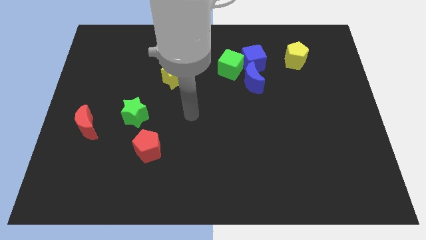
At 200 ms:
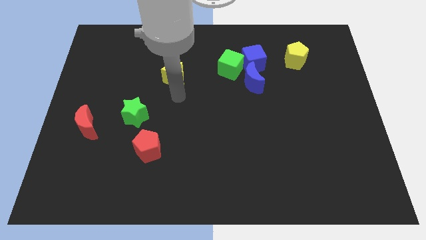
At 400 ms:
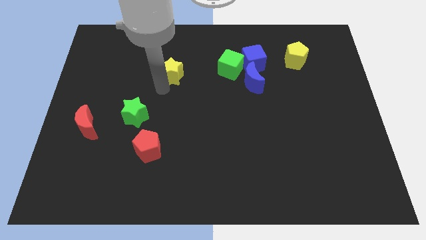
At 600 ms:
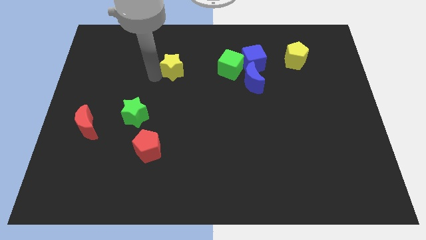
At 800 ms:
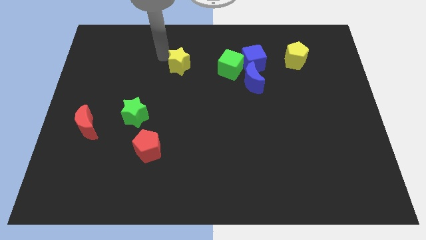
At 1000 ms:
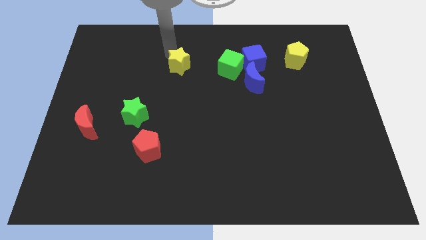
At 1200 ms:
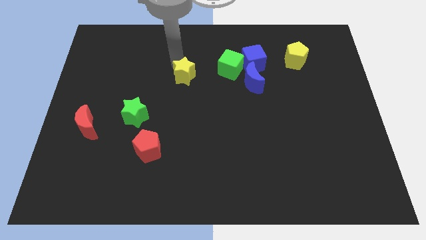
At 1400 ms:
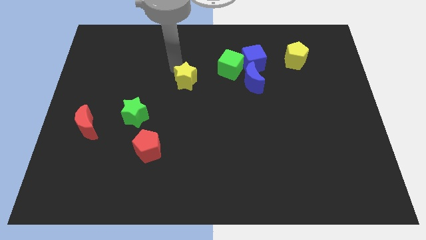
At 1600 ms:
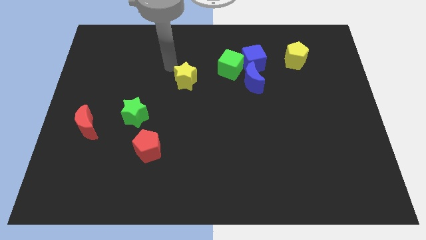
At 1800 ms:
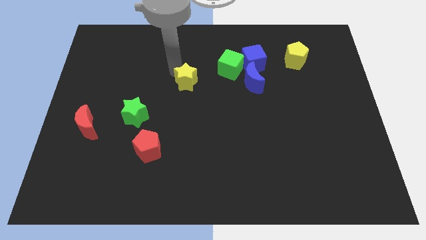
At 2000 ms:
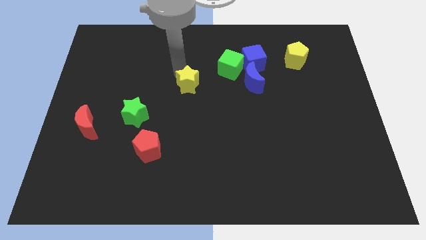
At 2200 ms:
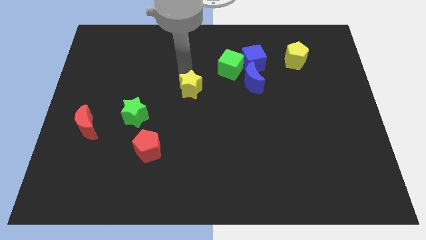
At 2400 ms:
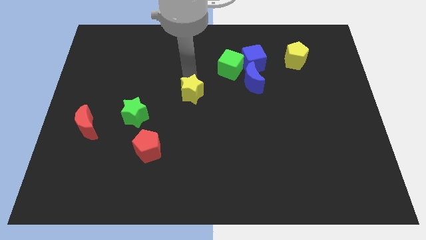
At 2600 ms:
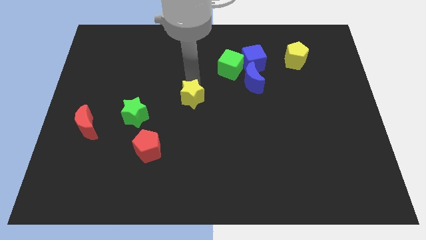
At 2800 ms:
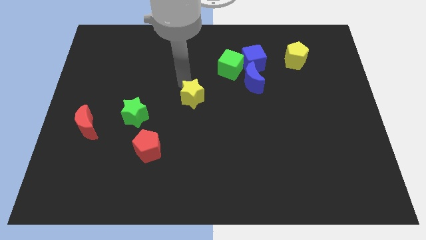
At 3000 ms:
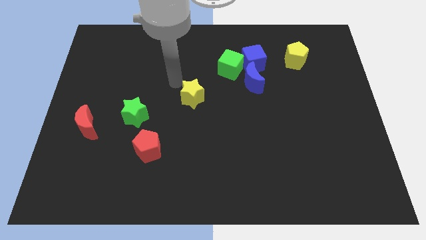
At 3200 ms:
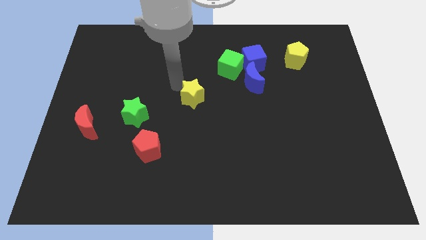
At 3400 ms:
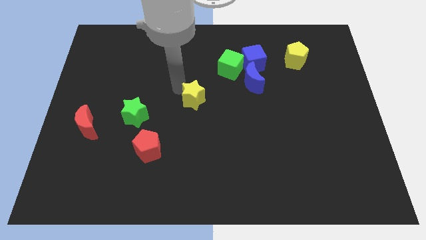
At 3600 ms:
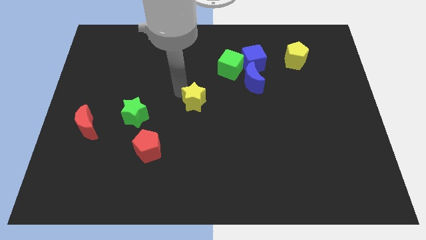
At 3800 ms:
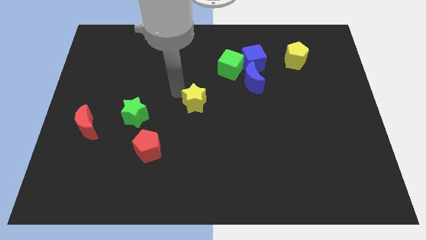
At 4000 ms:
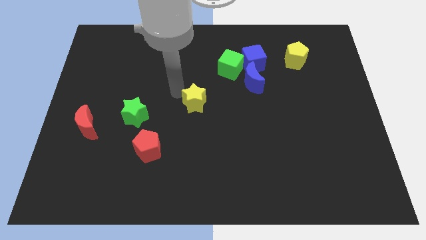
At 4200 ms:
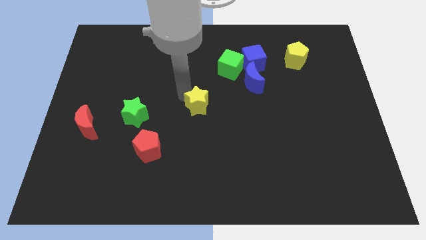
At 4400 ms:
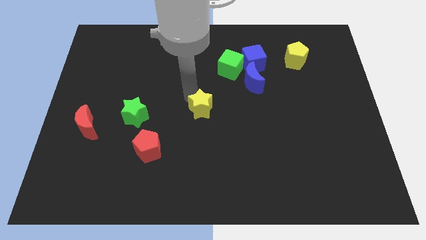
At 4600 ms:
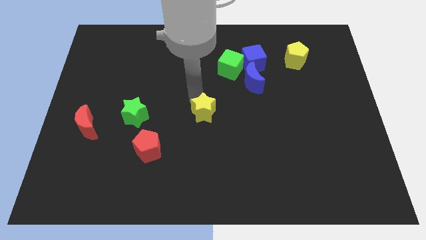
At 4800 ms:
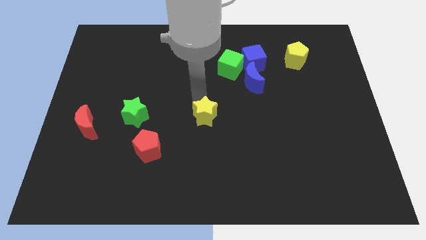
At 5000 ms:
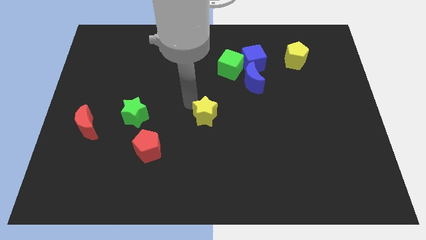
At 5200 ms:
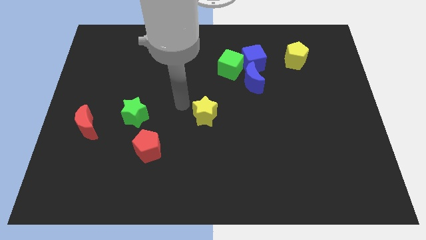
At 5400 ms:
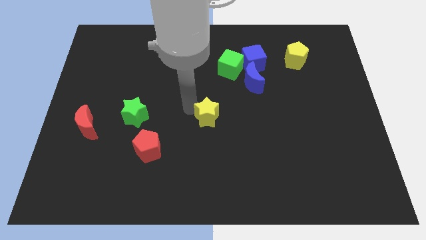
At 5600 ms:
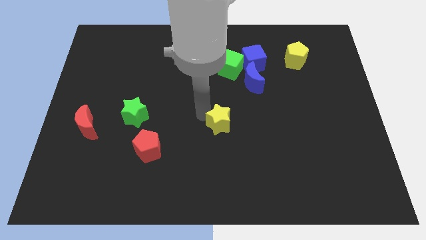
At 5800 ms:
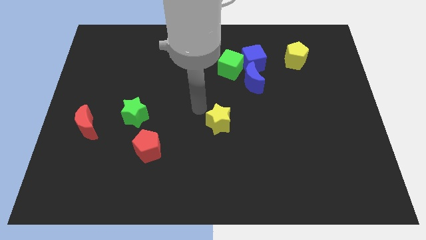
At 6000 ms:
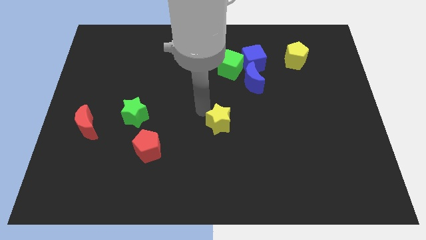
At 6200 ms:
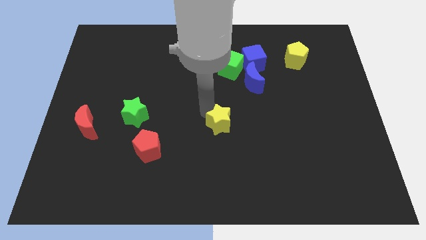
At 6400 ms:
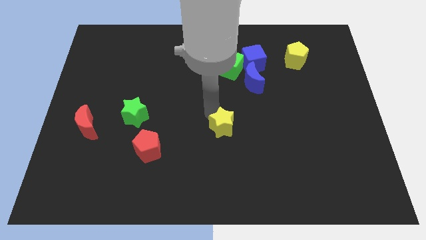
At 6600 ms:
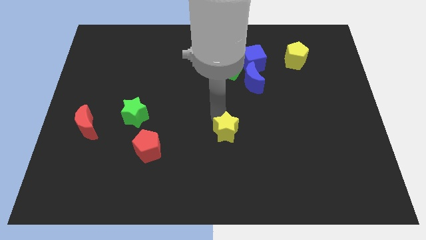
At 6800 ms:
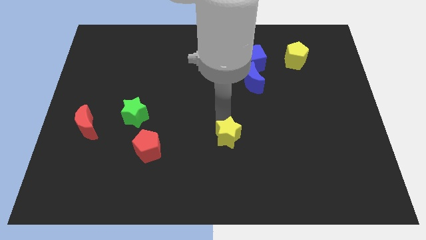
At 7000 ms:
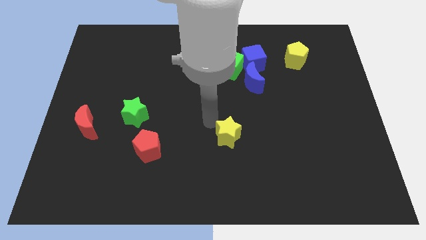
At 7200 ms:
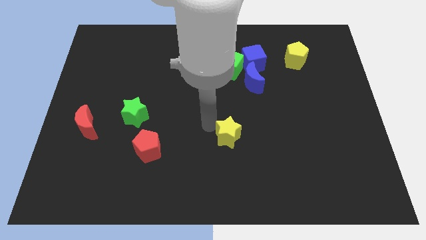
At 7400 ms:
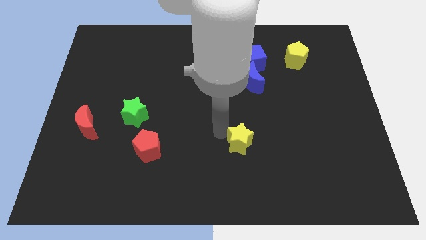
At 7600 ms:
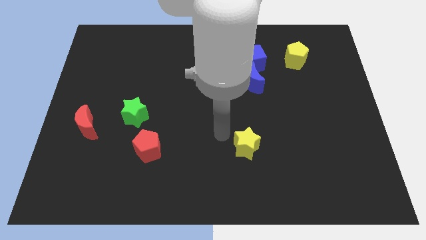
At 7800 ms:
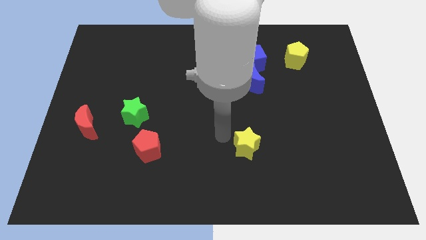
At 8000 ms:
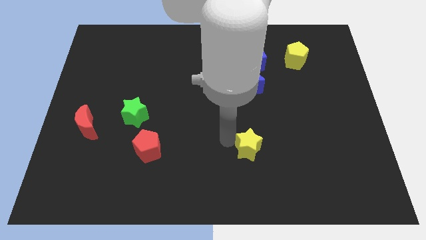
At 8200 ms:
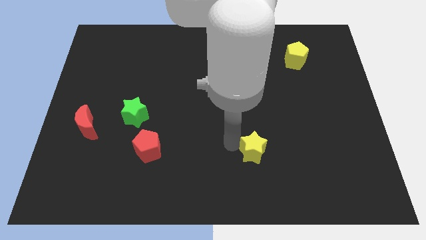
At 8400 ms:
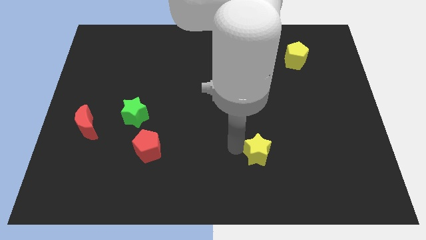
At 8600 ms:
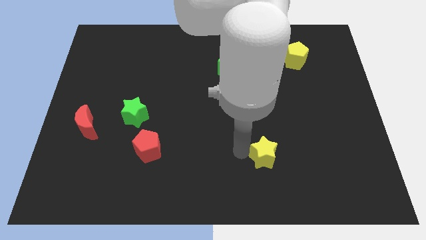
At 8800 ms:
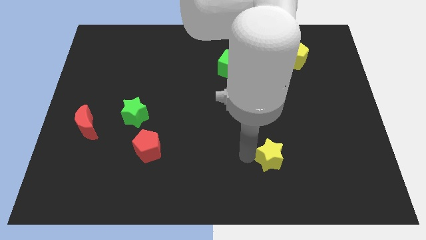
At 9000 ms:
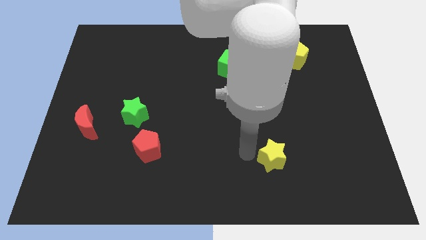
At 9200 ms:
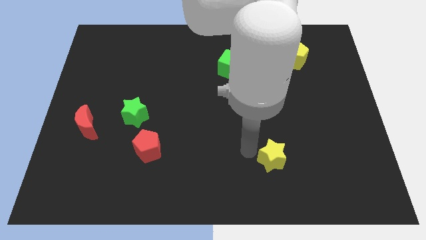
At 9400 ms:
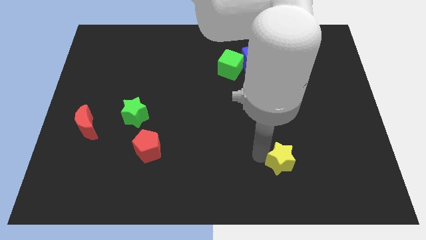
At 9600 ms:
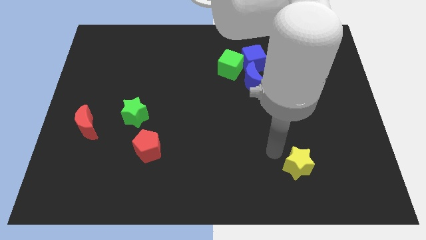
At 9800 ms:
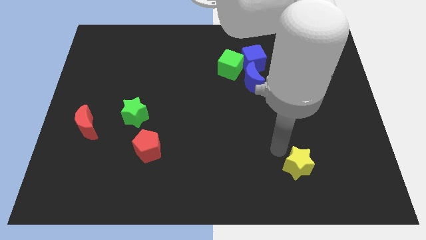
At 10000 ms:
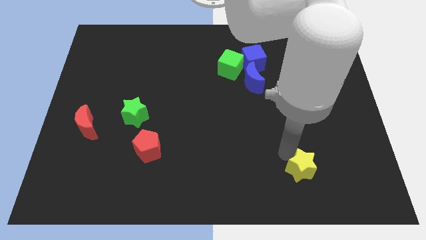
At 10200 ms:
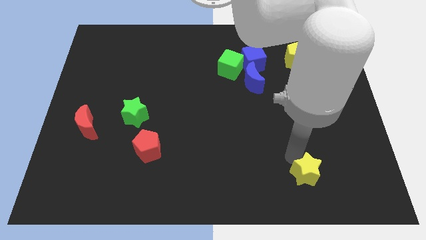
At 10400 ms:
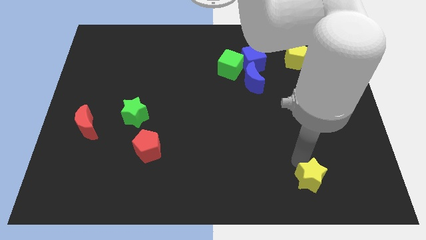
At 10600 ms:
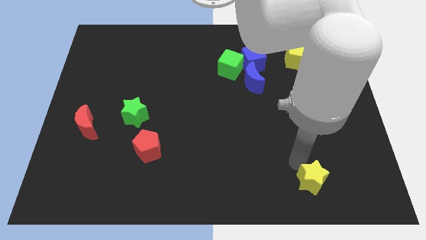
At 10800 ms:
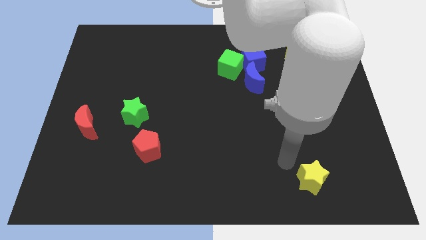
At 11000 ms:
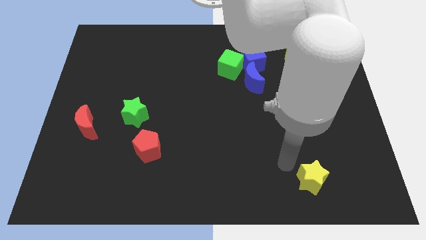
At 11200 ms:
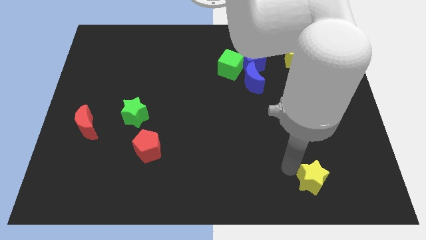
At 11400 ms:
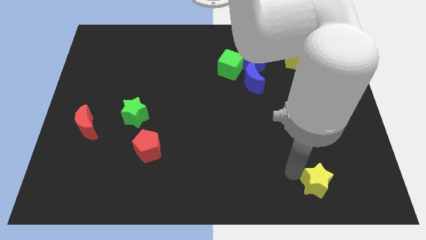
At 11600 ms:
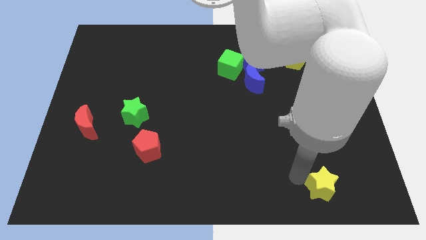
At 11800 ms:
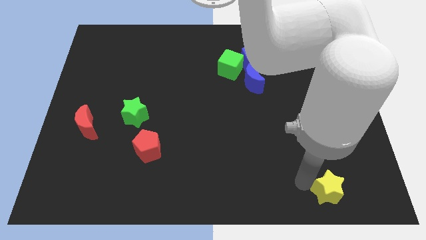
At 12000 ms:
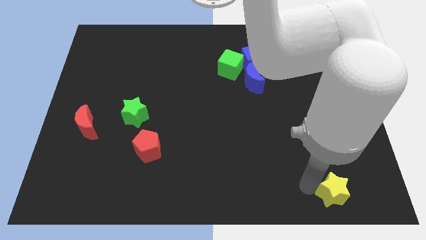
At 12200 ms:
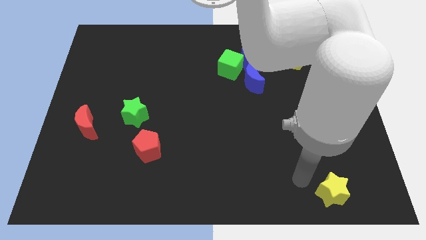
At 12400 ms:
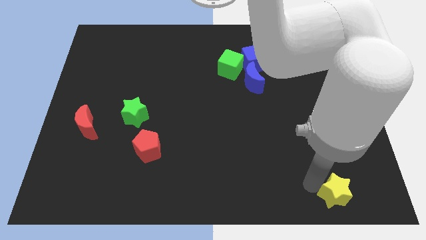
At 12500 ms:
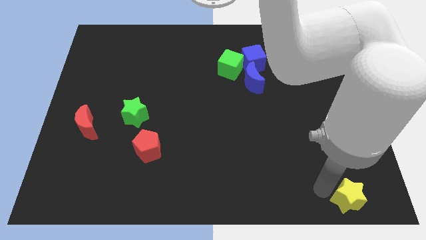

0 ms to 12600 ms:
slide the yellow star to the bottom right corner
